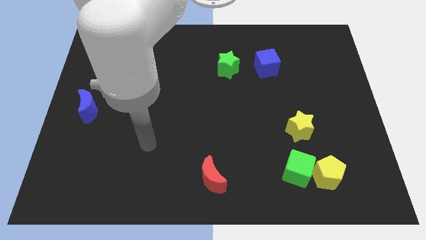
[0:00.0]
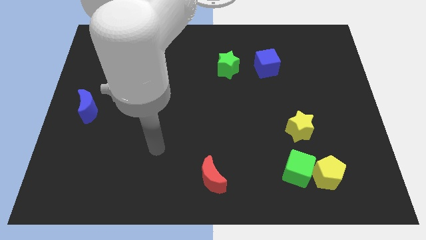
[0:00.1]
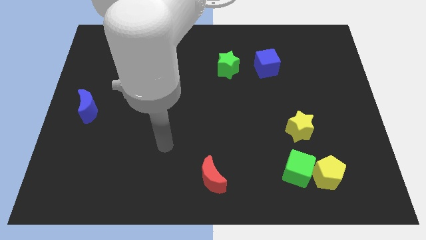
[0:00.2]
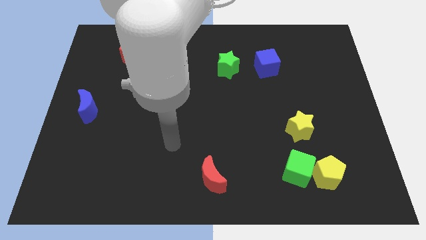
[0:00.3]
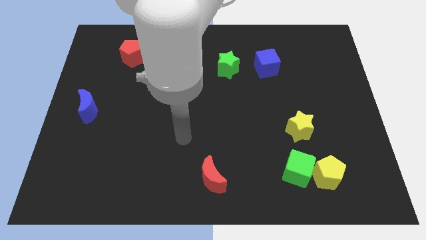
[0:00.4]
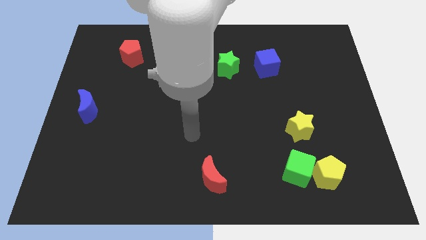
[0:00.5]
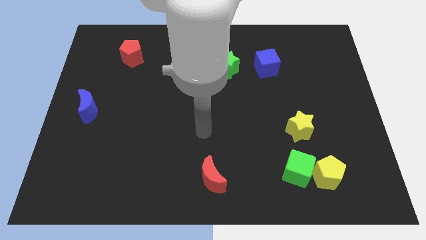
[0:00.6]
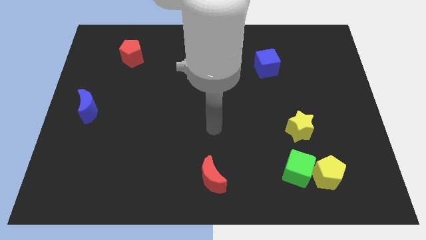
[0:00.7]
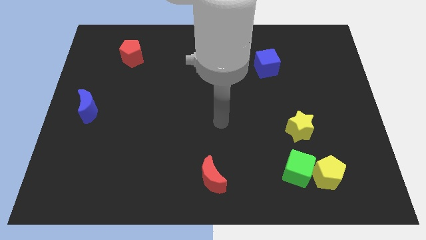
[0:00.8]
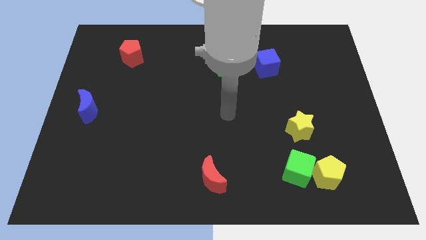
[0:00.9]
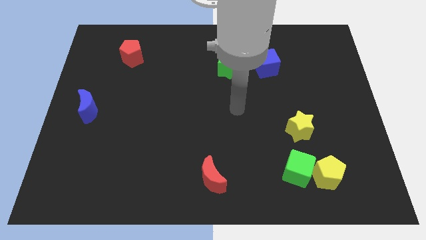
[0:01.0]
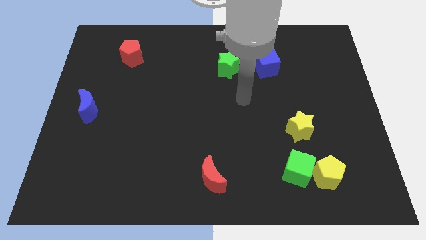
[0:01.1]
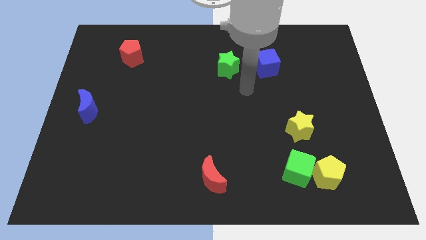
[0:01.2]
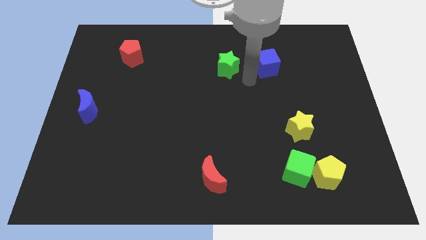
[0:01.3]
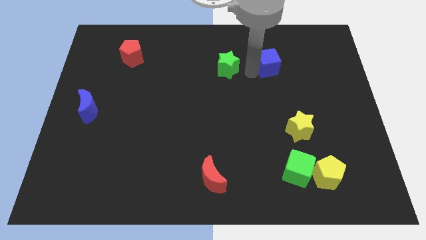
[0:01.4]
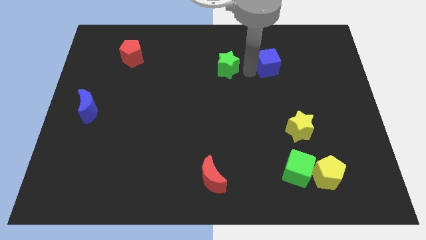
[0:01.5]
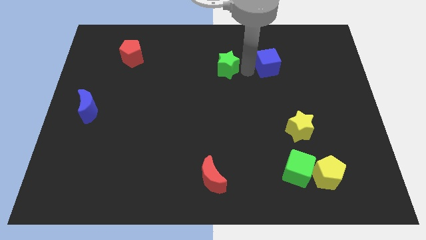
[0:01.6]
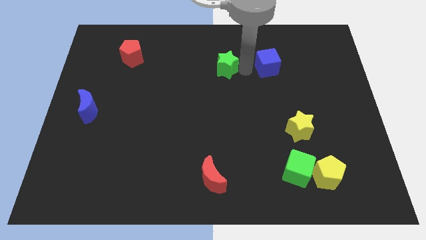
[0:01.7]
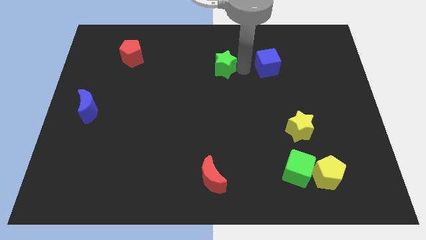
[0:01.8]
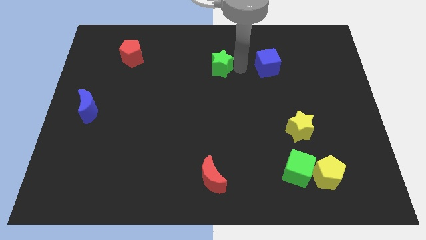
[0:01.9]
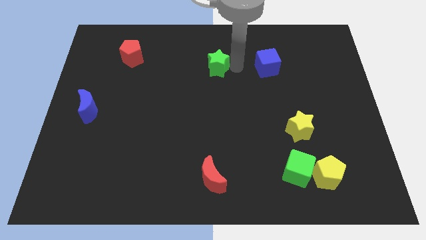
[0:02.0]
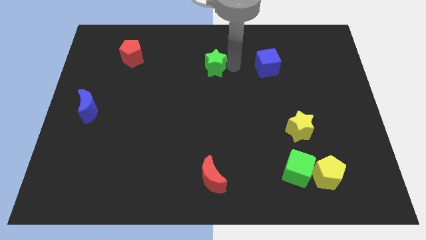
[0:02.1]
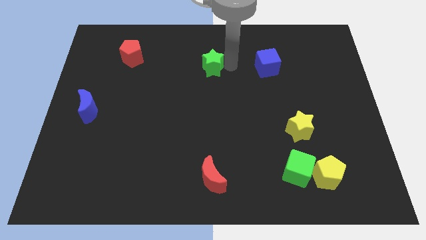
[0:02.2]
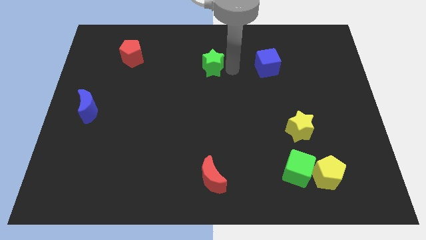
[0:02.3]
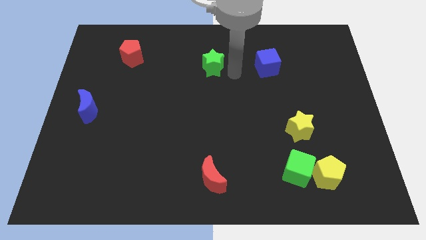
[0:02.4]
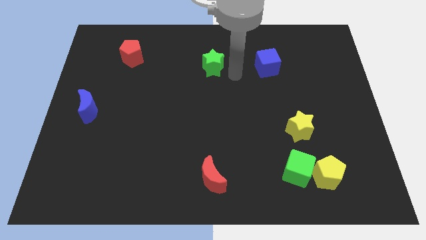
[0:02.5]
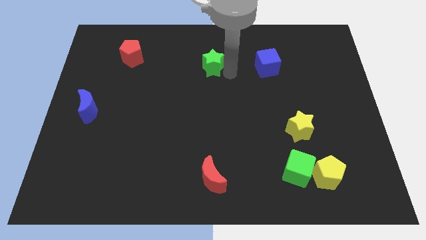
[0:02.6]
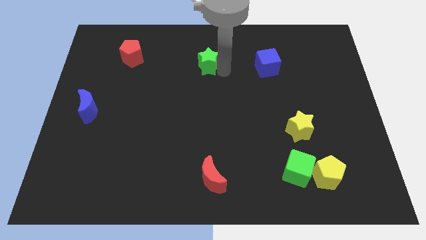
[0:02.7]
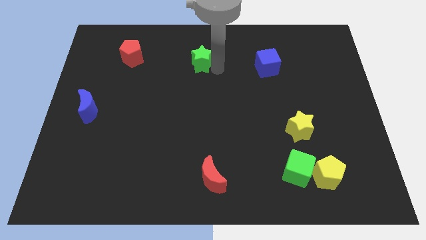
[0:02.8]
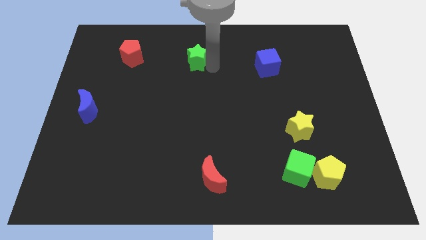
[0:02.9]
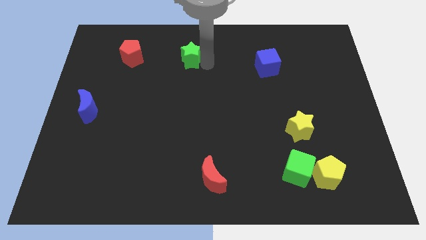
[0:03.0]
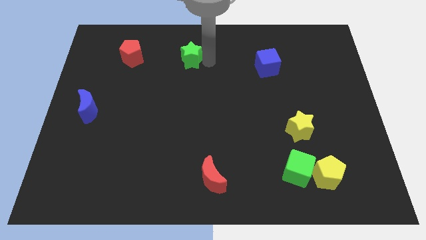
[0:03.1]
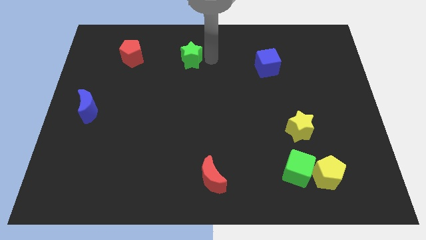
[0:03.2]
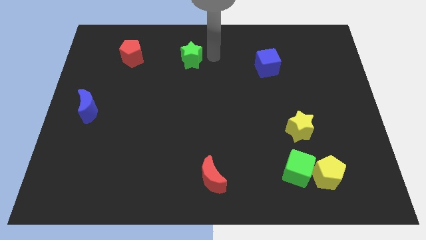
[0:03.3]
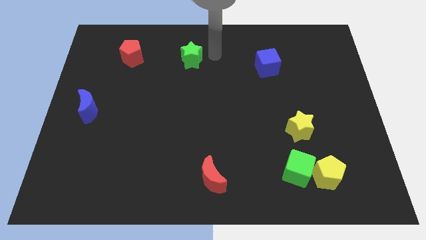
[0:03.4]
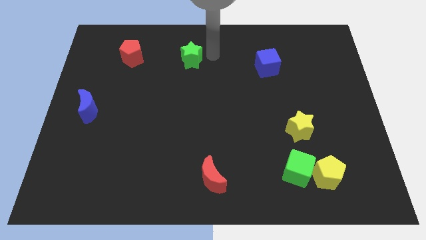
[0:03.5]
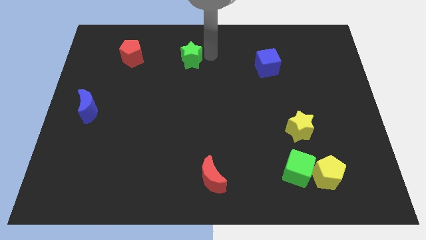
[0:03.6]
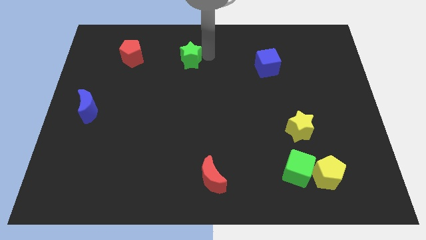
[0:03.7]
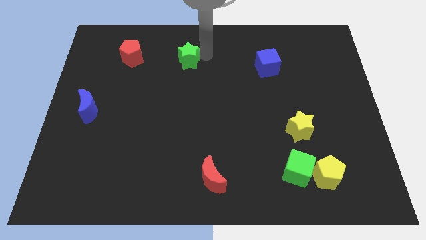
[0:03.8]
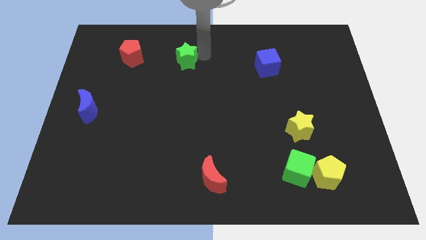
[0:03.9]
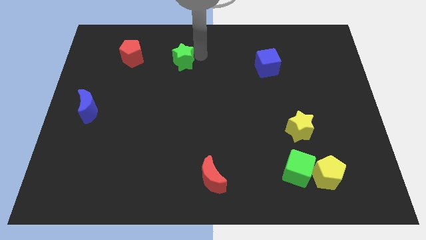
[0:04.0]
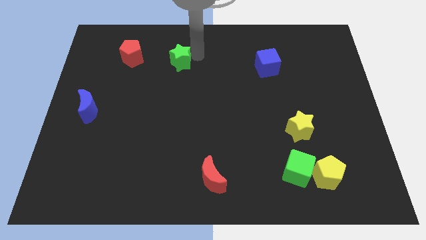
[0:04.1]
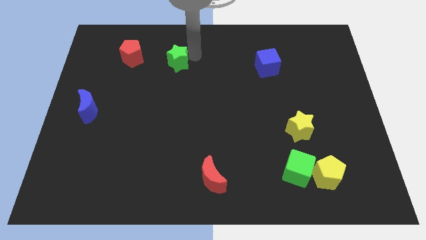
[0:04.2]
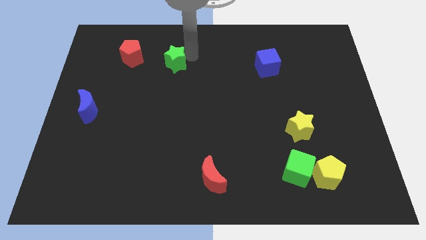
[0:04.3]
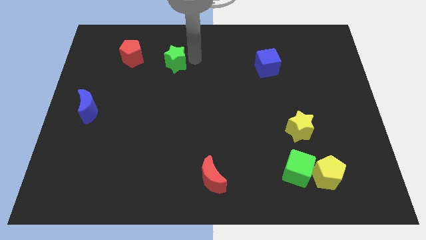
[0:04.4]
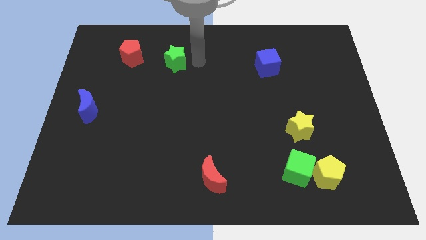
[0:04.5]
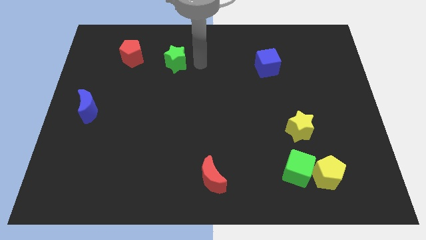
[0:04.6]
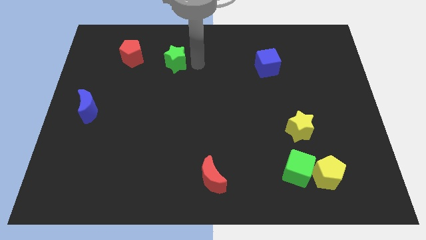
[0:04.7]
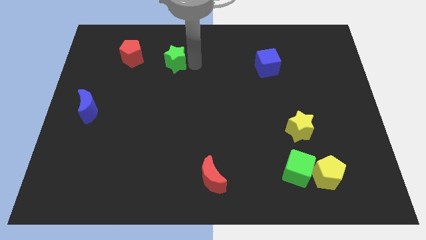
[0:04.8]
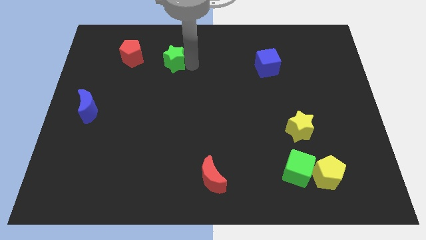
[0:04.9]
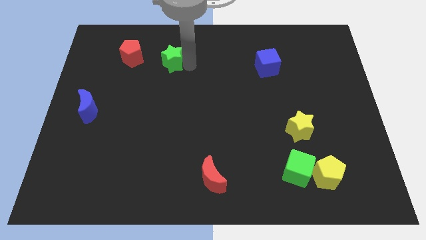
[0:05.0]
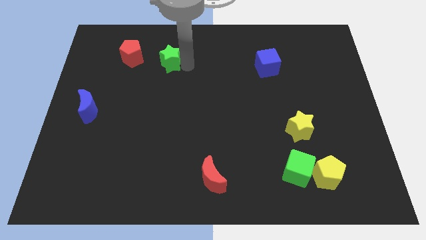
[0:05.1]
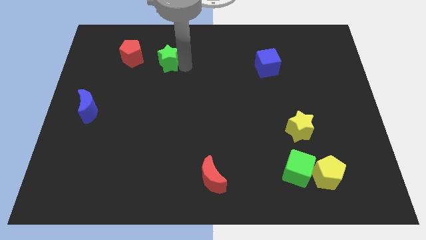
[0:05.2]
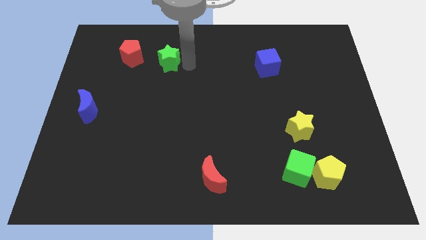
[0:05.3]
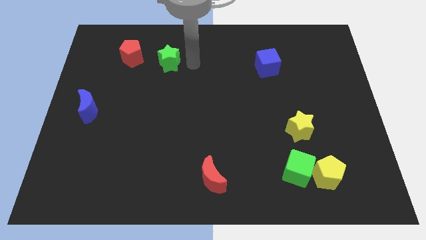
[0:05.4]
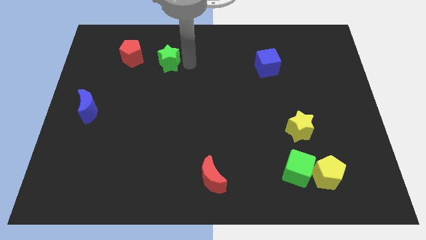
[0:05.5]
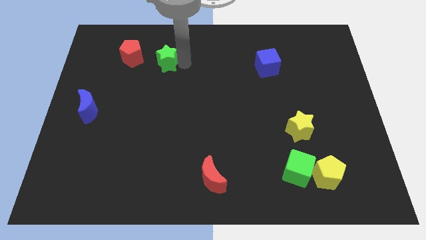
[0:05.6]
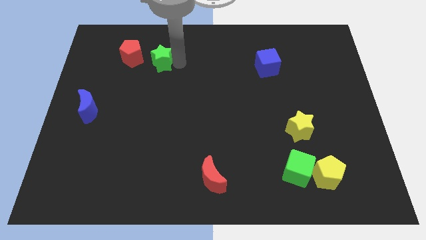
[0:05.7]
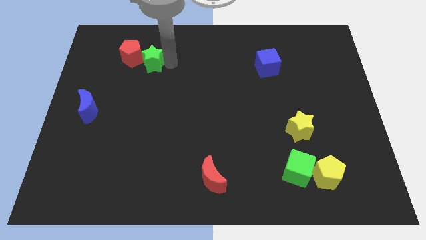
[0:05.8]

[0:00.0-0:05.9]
put the green star next to the red pentagon

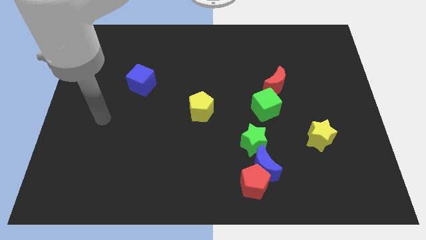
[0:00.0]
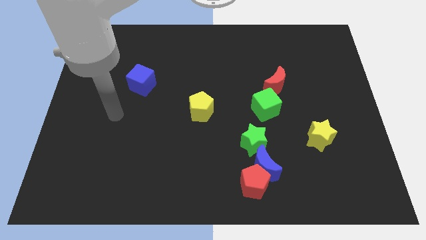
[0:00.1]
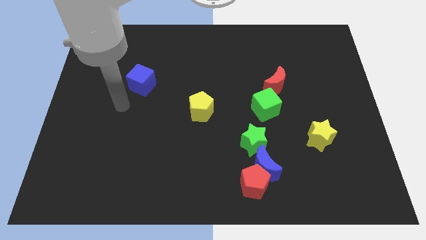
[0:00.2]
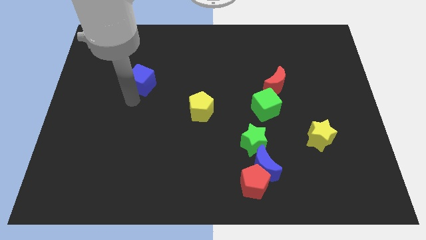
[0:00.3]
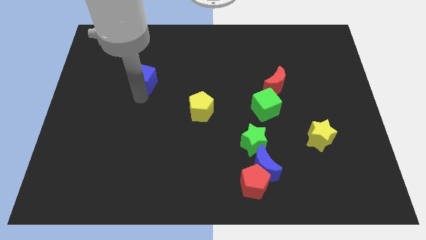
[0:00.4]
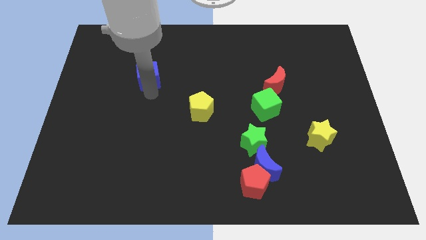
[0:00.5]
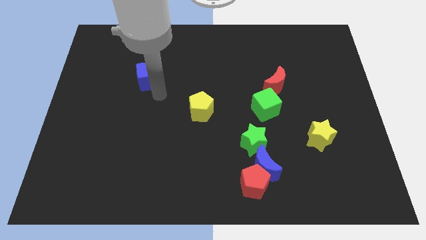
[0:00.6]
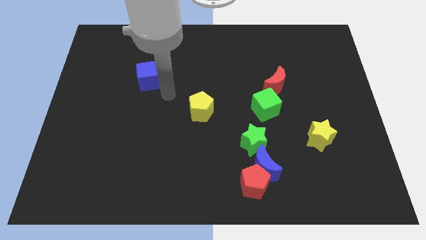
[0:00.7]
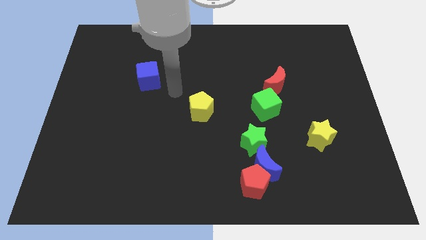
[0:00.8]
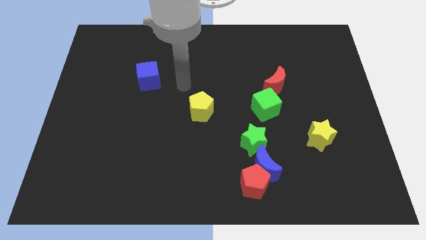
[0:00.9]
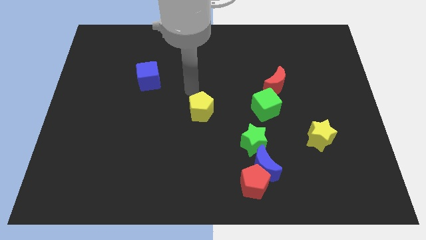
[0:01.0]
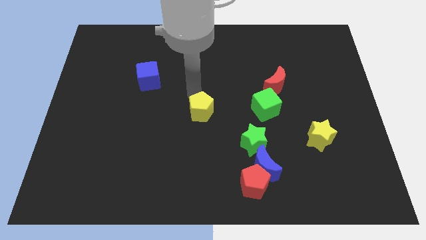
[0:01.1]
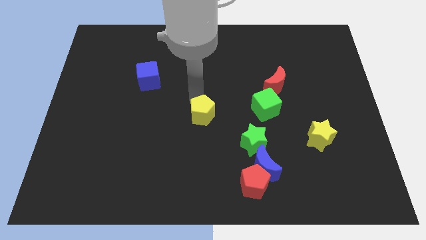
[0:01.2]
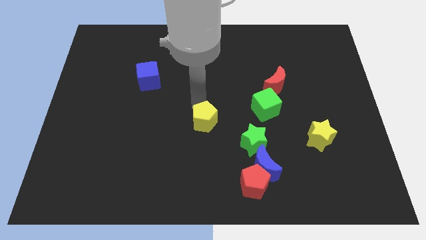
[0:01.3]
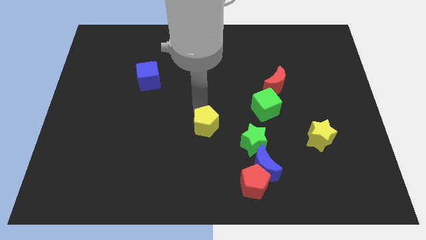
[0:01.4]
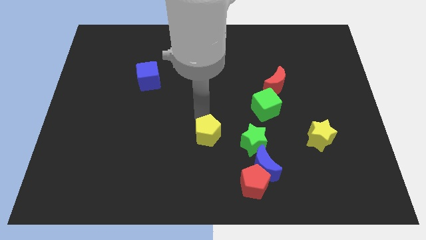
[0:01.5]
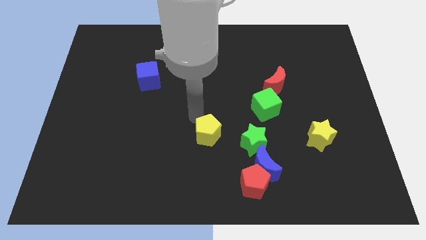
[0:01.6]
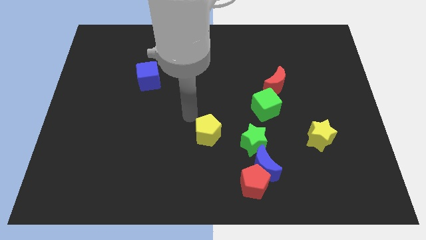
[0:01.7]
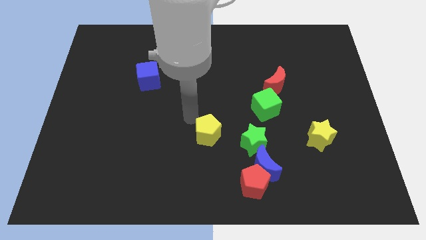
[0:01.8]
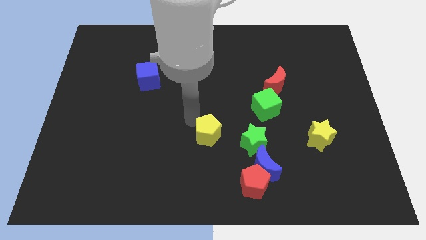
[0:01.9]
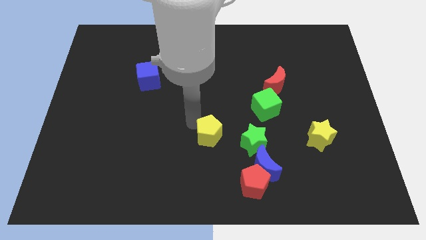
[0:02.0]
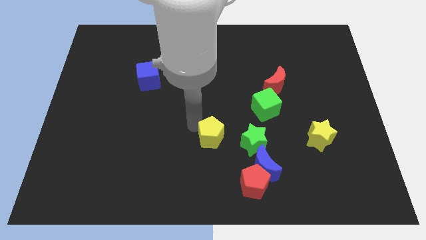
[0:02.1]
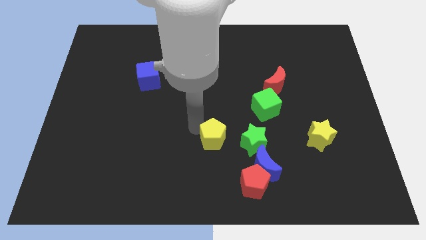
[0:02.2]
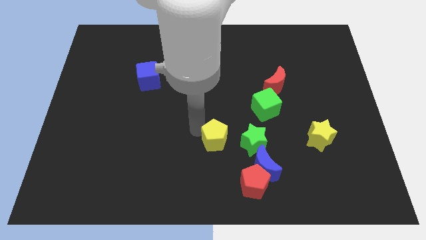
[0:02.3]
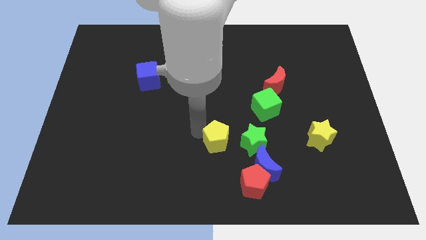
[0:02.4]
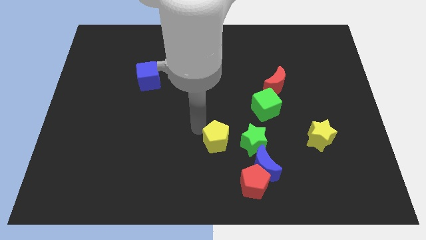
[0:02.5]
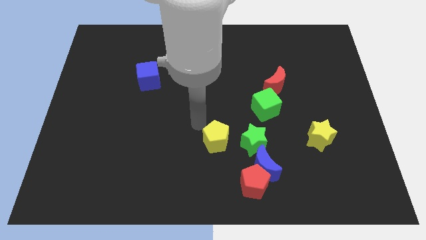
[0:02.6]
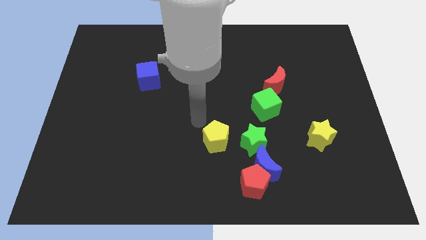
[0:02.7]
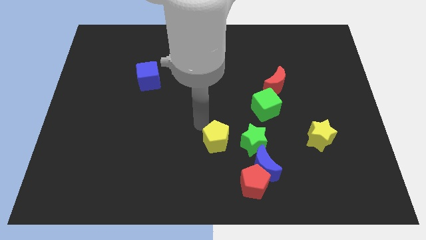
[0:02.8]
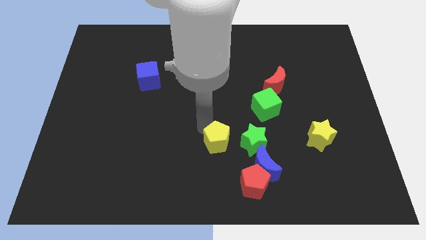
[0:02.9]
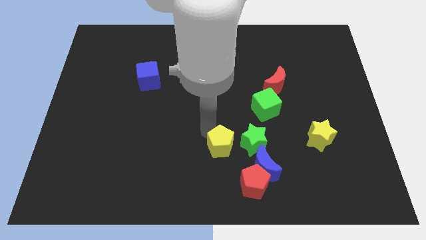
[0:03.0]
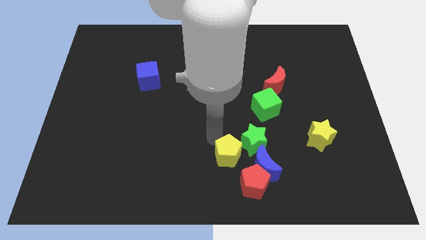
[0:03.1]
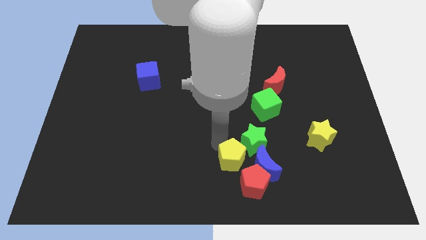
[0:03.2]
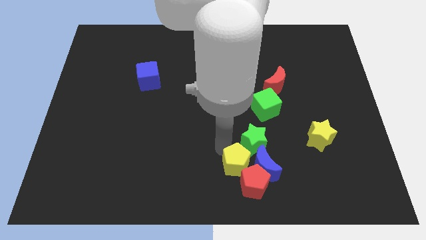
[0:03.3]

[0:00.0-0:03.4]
slide the yellow pentagon next to the red pentagon
